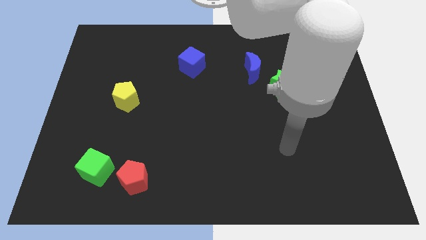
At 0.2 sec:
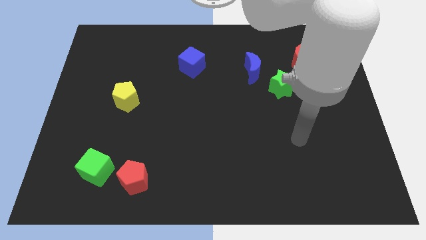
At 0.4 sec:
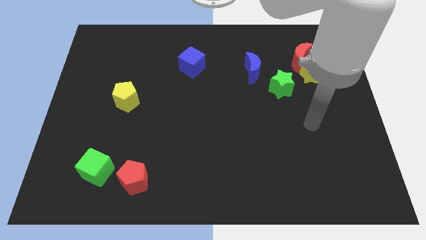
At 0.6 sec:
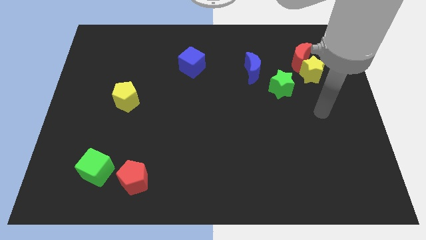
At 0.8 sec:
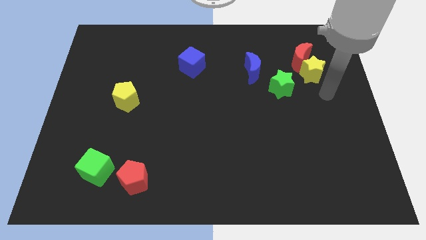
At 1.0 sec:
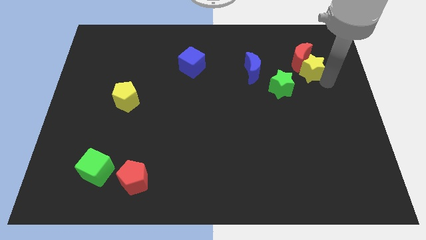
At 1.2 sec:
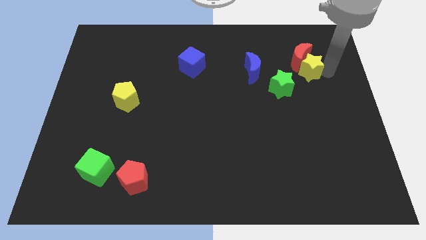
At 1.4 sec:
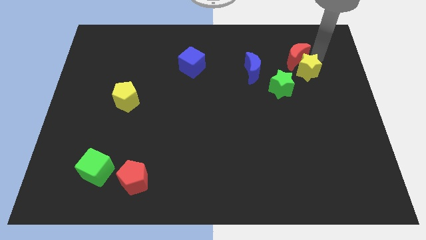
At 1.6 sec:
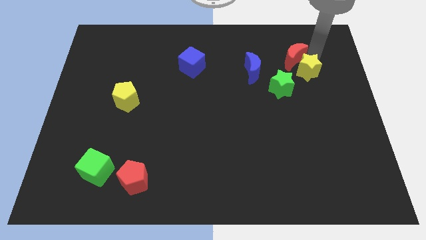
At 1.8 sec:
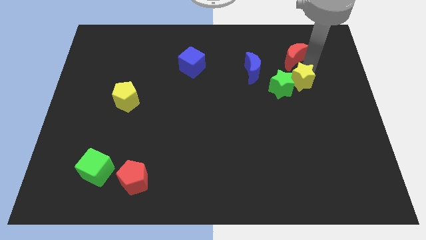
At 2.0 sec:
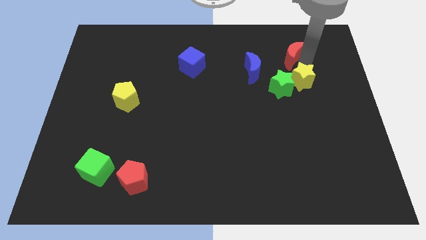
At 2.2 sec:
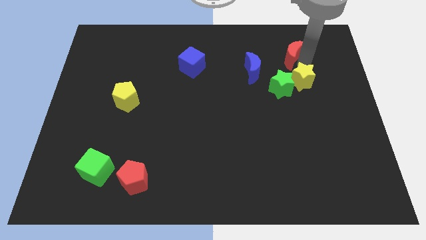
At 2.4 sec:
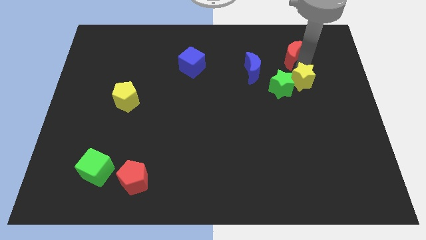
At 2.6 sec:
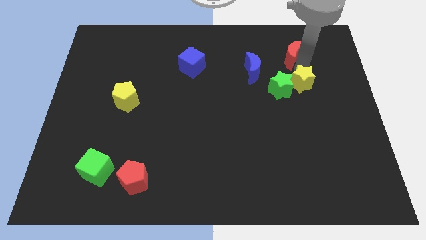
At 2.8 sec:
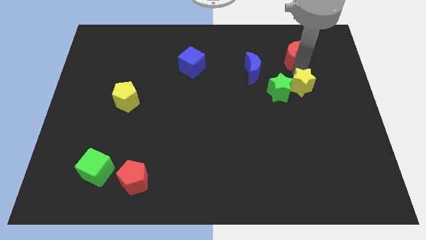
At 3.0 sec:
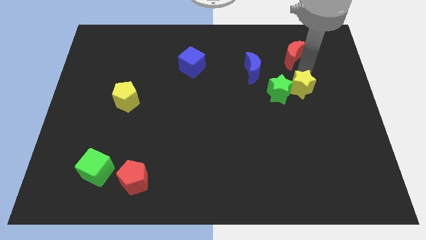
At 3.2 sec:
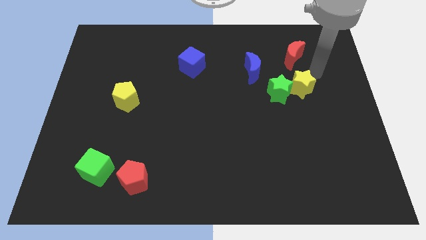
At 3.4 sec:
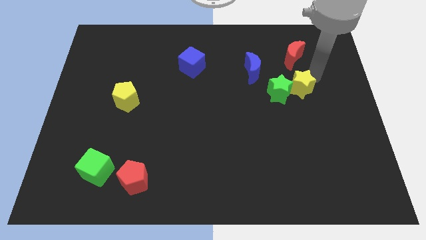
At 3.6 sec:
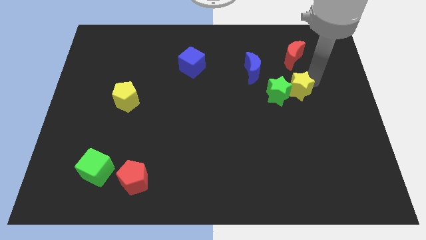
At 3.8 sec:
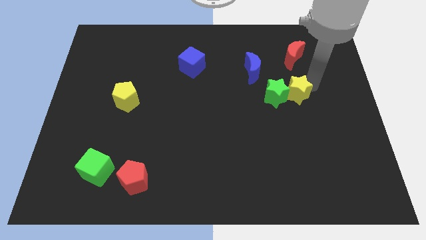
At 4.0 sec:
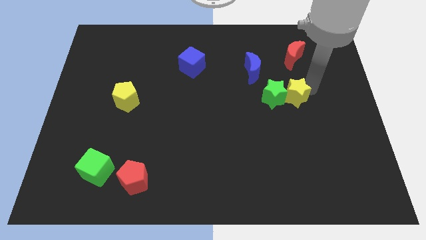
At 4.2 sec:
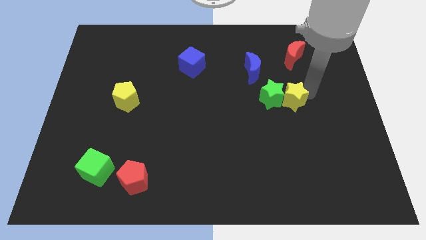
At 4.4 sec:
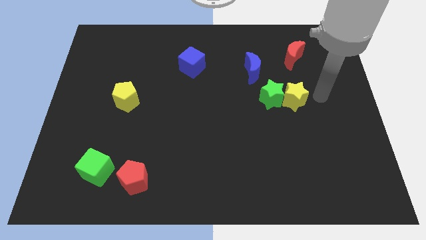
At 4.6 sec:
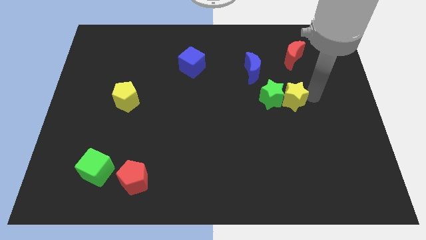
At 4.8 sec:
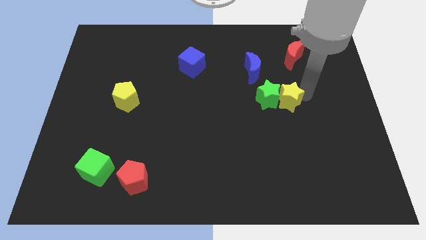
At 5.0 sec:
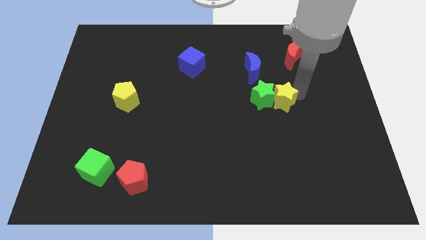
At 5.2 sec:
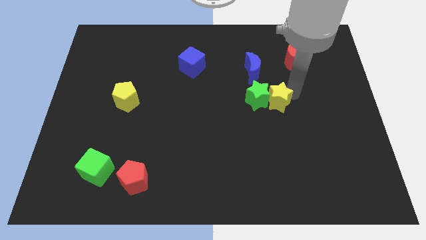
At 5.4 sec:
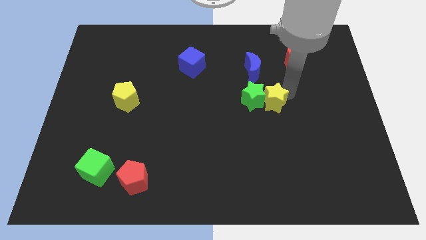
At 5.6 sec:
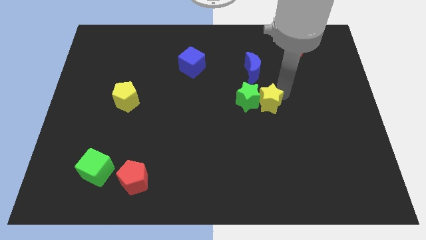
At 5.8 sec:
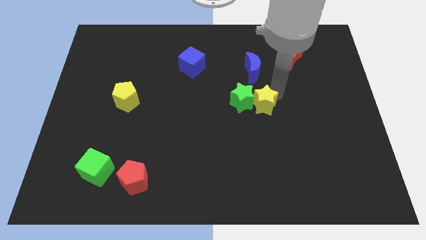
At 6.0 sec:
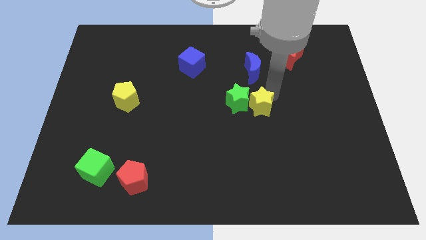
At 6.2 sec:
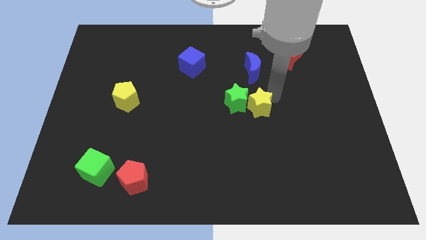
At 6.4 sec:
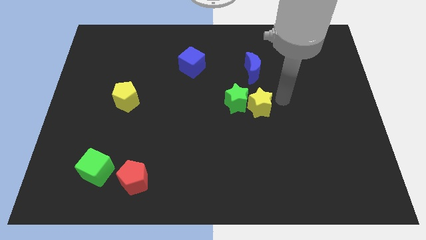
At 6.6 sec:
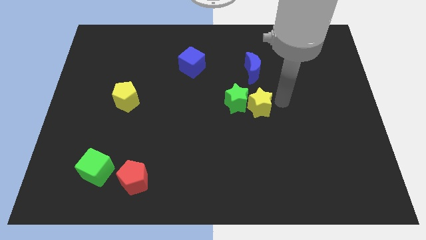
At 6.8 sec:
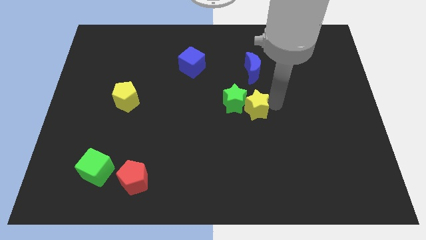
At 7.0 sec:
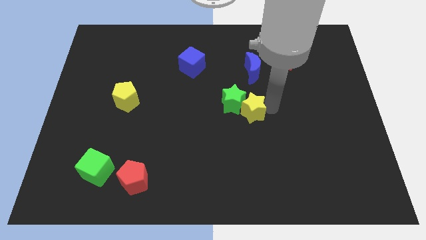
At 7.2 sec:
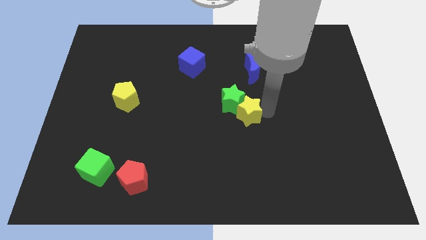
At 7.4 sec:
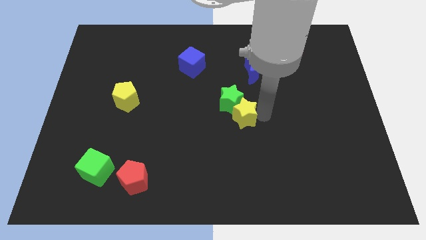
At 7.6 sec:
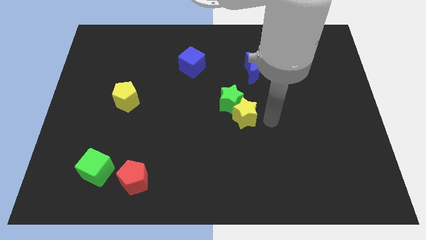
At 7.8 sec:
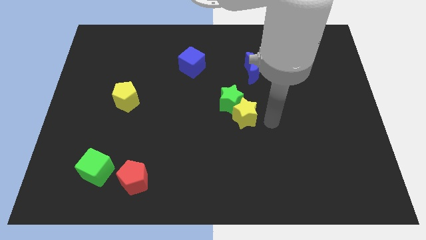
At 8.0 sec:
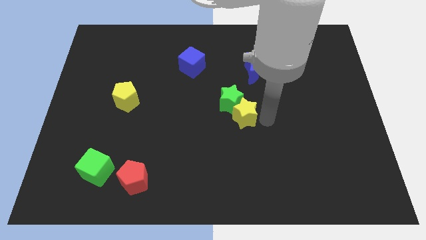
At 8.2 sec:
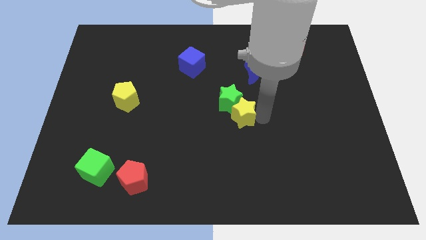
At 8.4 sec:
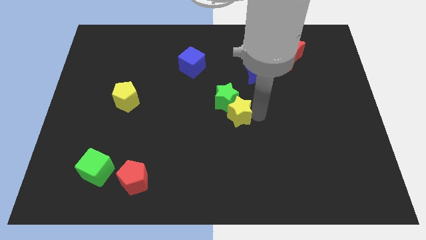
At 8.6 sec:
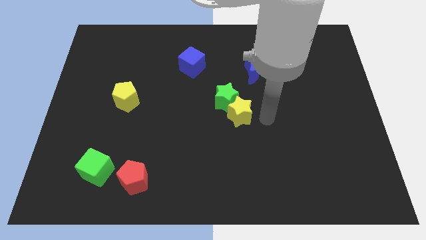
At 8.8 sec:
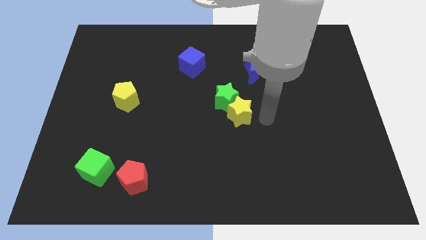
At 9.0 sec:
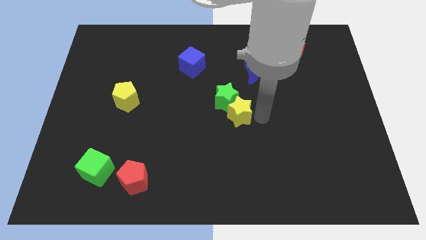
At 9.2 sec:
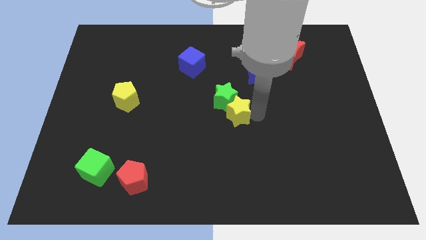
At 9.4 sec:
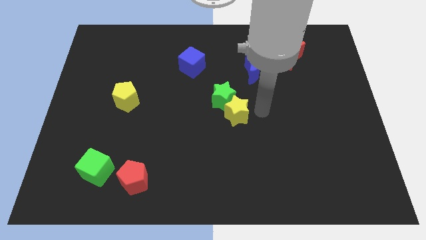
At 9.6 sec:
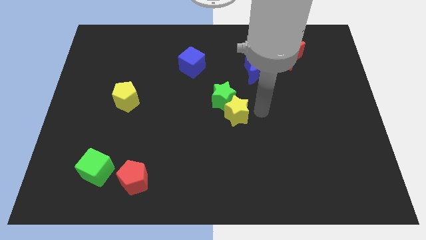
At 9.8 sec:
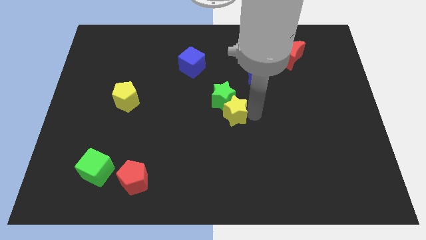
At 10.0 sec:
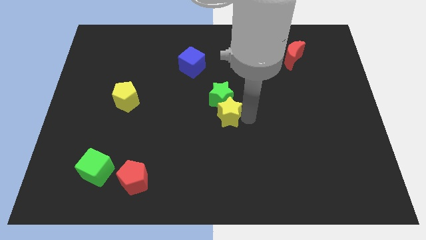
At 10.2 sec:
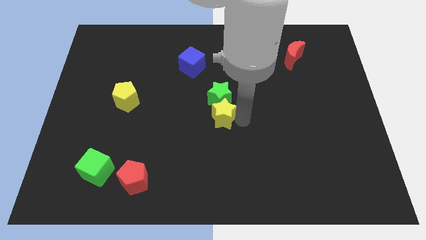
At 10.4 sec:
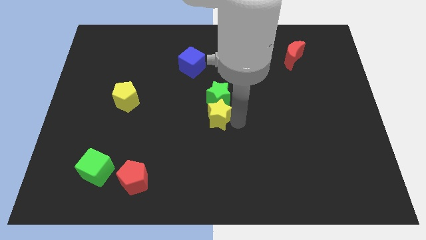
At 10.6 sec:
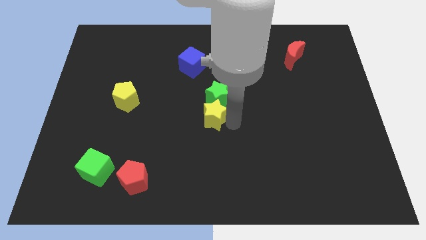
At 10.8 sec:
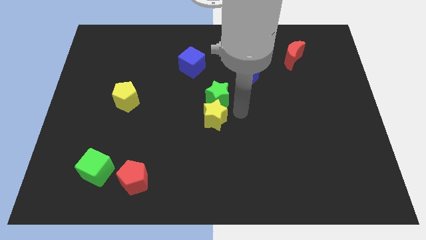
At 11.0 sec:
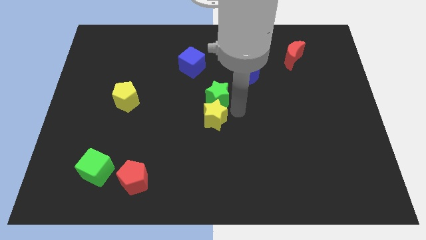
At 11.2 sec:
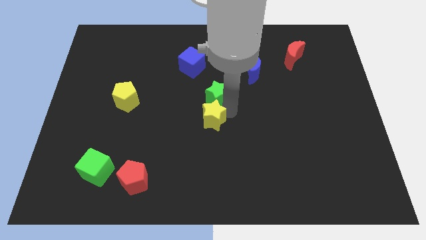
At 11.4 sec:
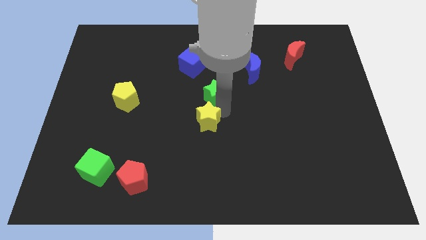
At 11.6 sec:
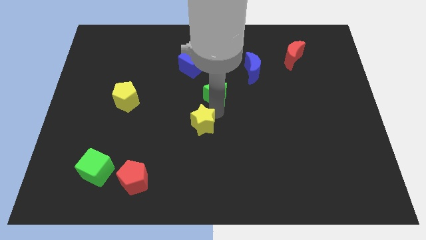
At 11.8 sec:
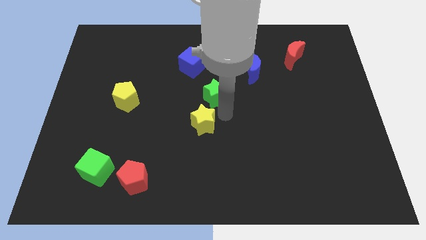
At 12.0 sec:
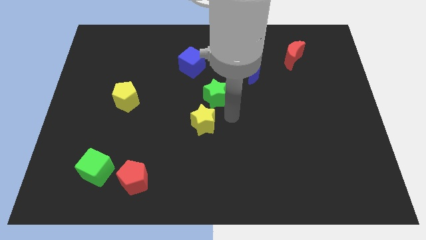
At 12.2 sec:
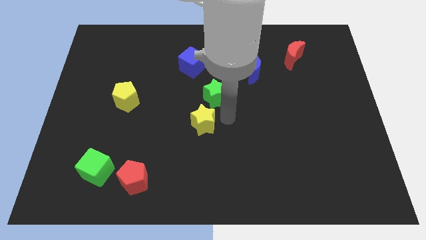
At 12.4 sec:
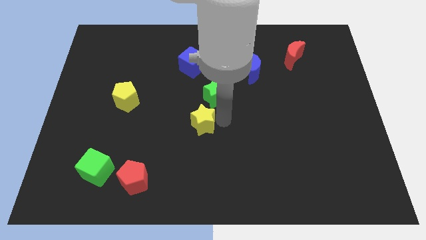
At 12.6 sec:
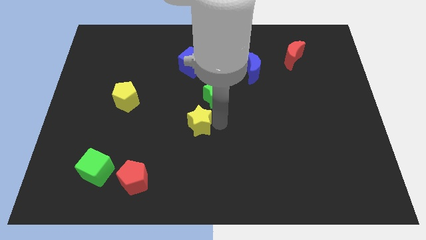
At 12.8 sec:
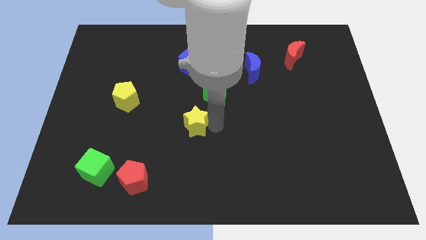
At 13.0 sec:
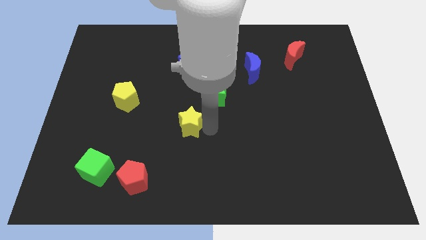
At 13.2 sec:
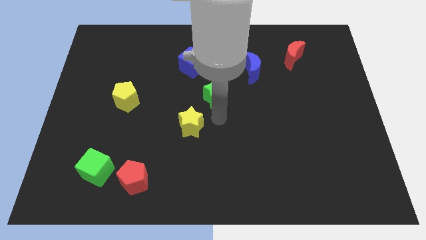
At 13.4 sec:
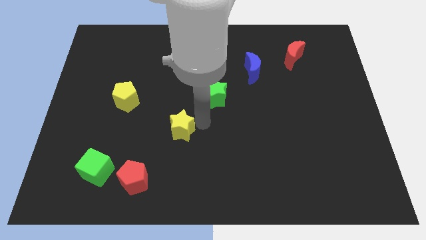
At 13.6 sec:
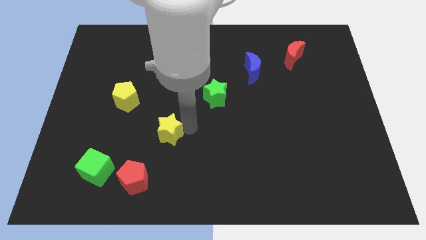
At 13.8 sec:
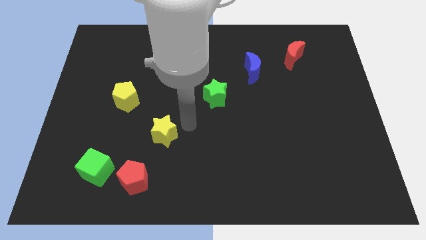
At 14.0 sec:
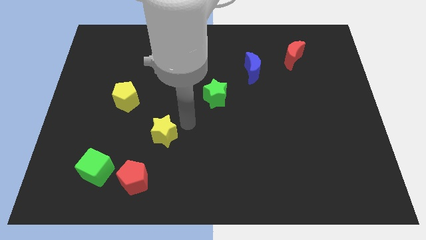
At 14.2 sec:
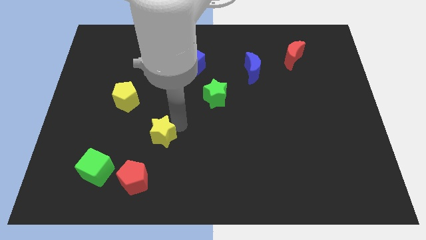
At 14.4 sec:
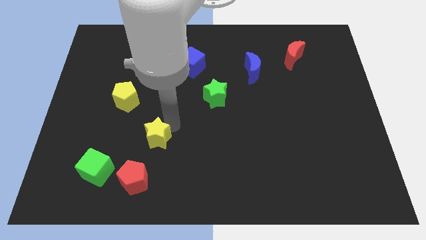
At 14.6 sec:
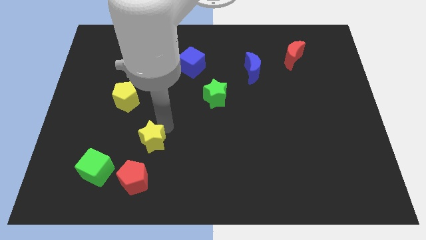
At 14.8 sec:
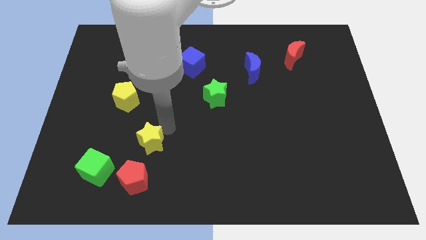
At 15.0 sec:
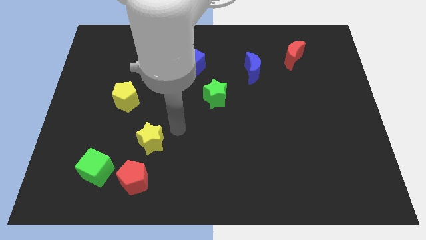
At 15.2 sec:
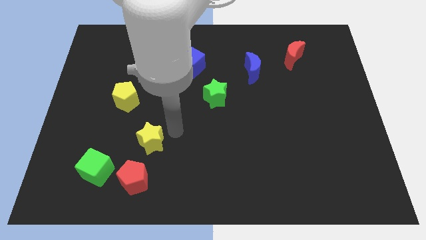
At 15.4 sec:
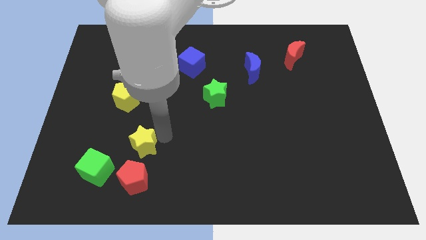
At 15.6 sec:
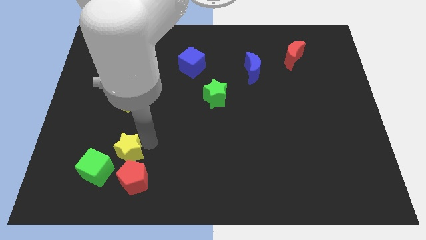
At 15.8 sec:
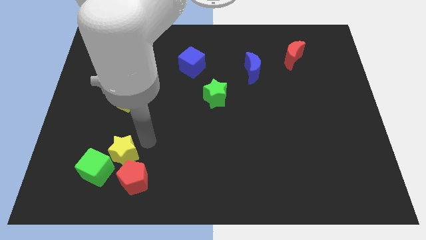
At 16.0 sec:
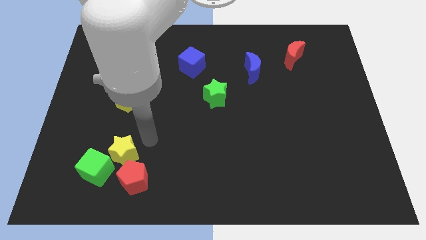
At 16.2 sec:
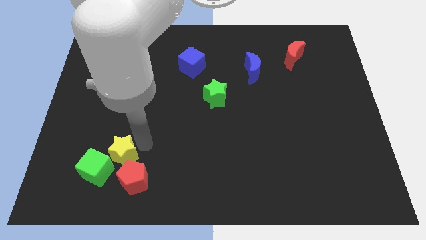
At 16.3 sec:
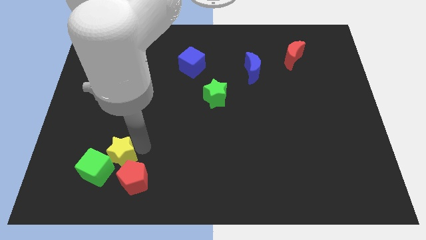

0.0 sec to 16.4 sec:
put the yellow star next to the green cube
